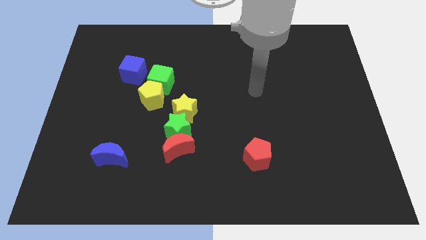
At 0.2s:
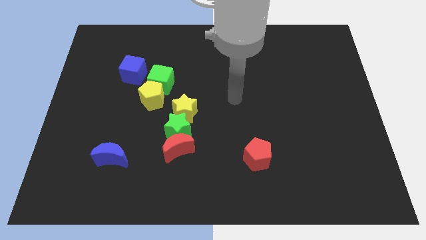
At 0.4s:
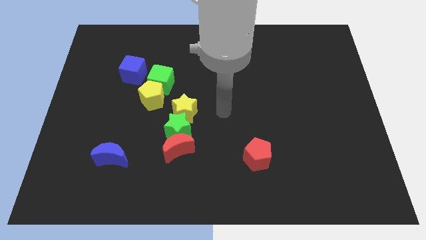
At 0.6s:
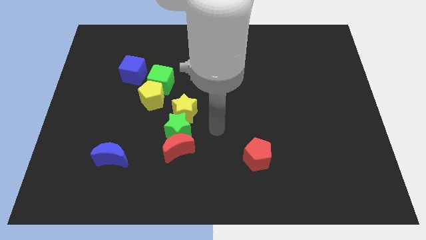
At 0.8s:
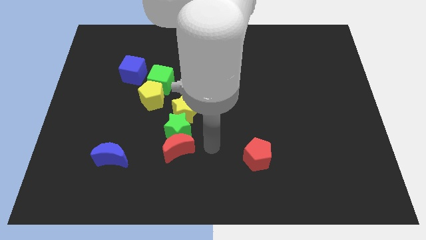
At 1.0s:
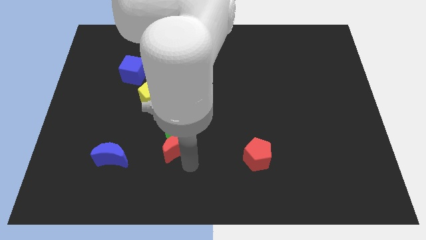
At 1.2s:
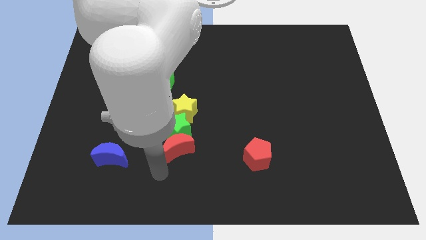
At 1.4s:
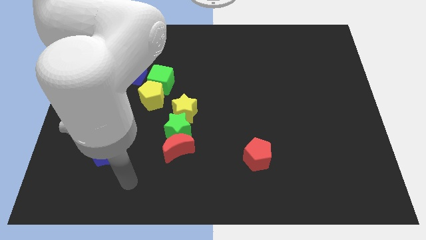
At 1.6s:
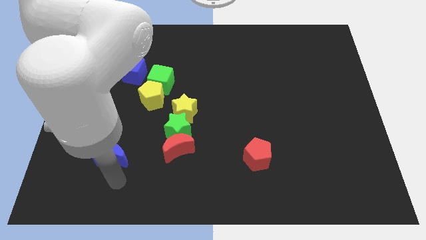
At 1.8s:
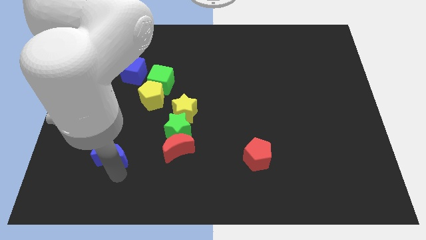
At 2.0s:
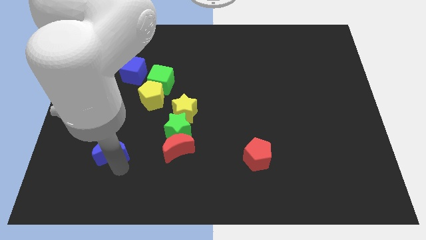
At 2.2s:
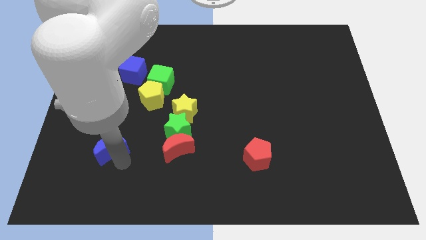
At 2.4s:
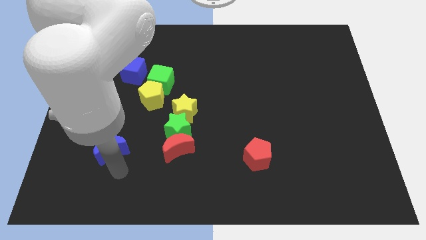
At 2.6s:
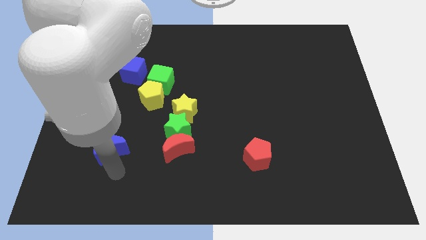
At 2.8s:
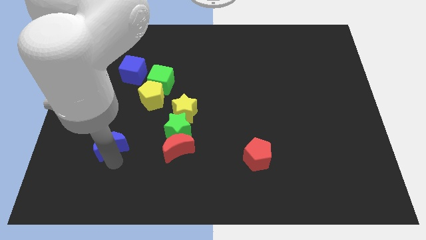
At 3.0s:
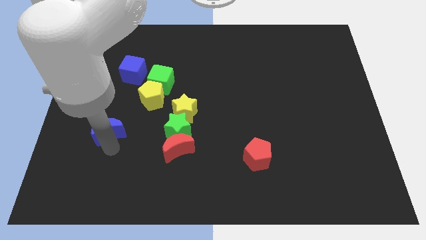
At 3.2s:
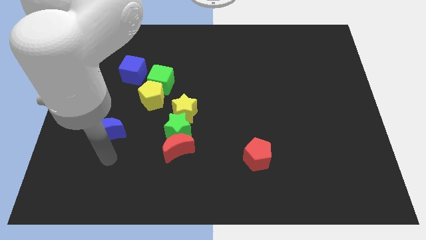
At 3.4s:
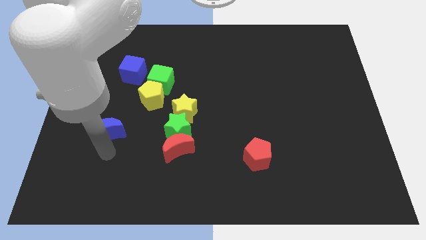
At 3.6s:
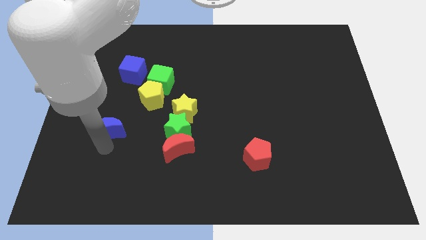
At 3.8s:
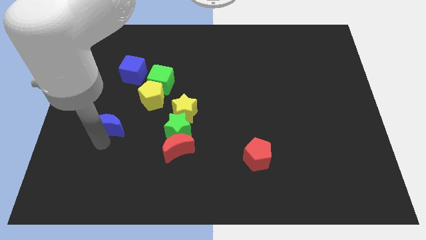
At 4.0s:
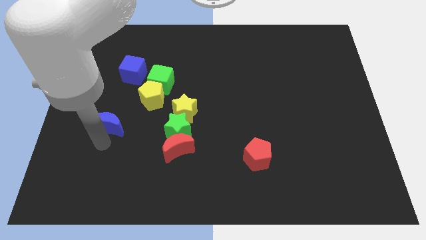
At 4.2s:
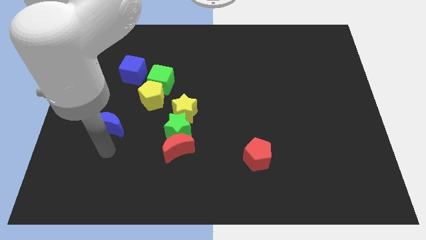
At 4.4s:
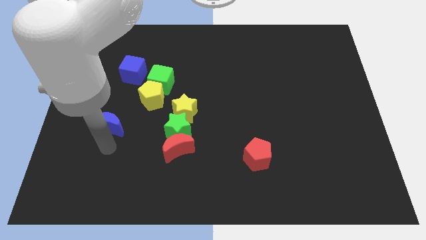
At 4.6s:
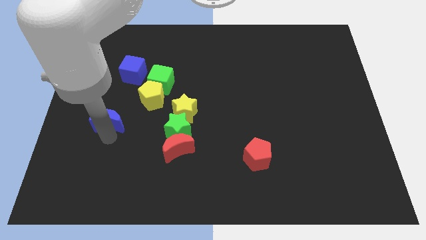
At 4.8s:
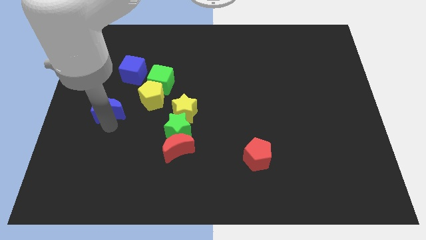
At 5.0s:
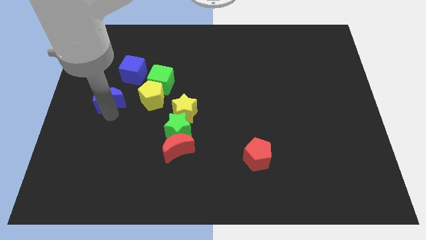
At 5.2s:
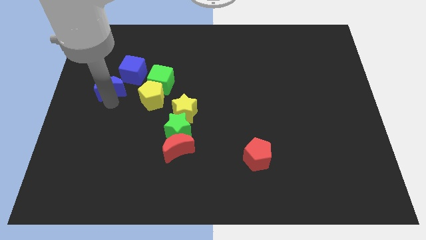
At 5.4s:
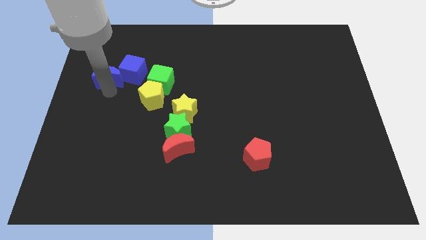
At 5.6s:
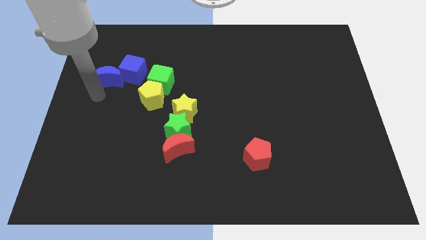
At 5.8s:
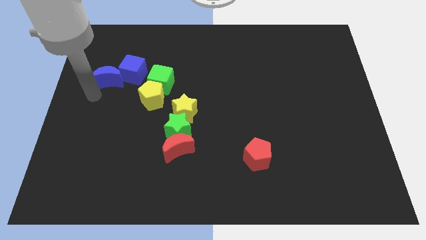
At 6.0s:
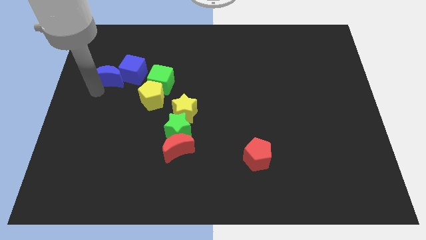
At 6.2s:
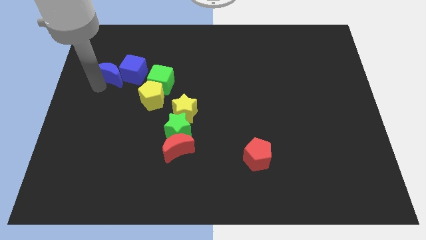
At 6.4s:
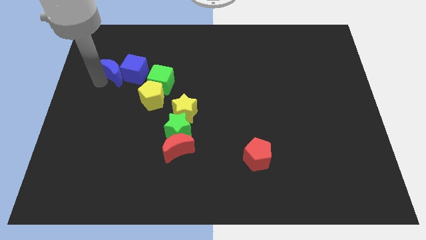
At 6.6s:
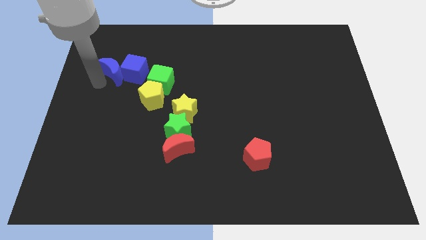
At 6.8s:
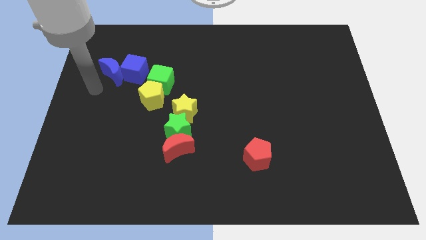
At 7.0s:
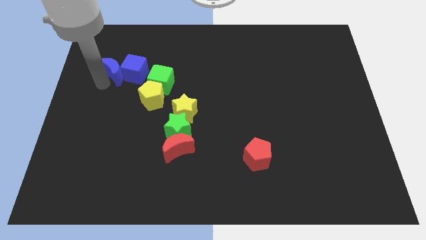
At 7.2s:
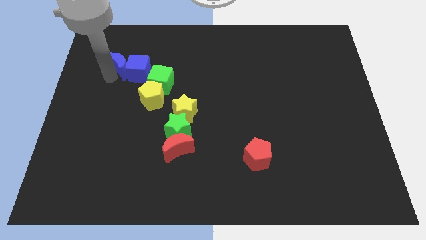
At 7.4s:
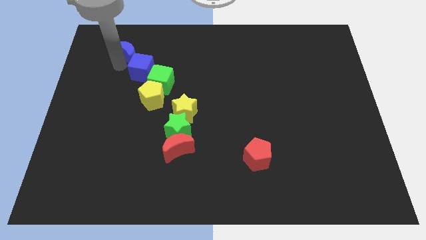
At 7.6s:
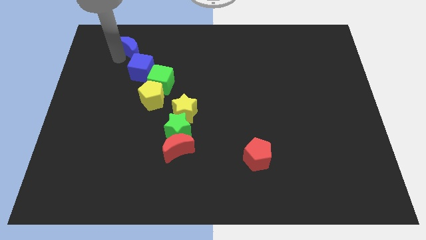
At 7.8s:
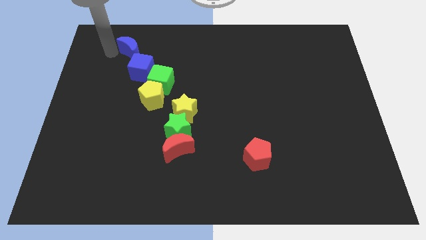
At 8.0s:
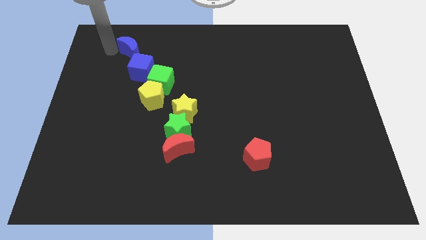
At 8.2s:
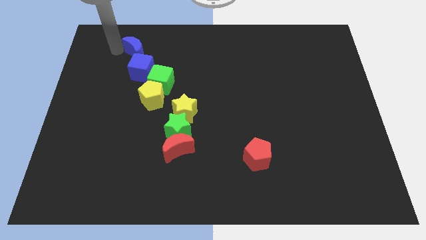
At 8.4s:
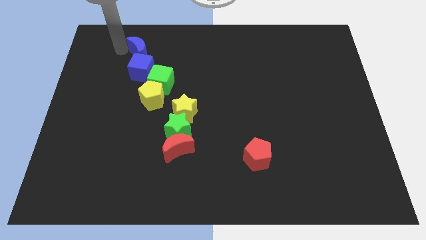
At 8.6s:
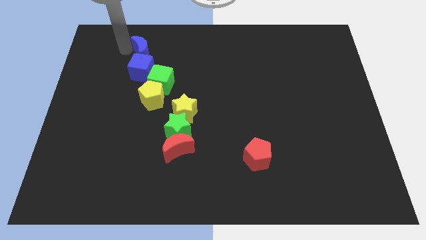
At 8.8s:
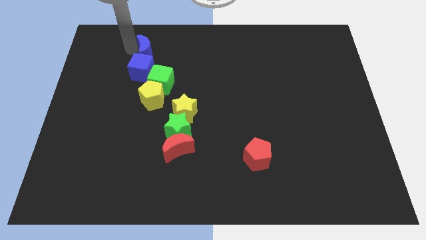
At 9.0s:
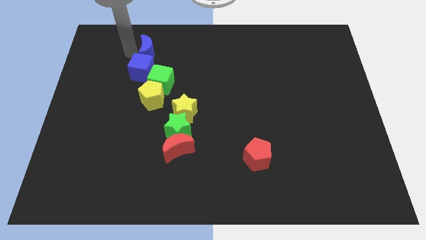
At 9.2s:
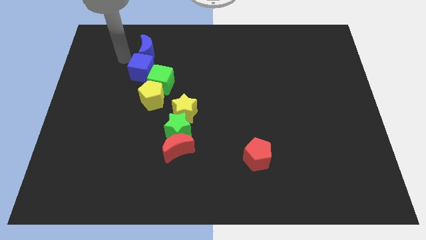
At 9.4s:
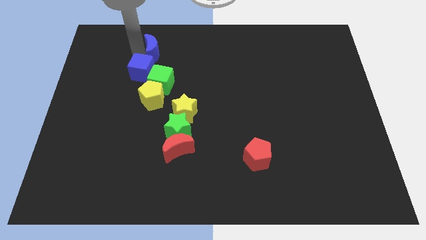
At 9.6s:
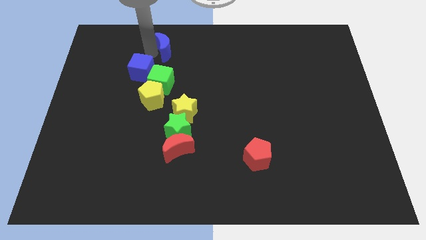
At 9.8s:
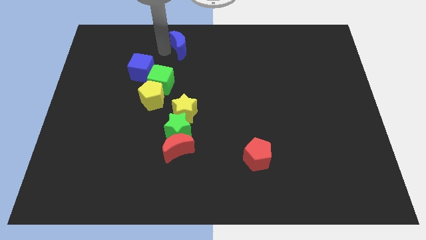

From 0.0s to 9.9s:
slide the blue moon to the top side

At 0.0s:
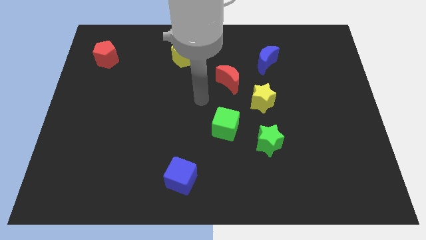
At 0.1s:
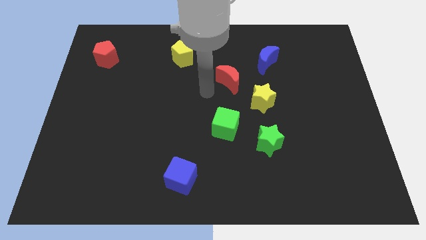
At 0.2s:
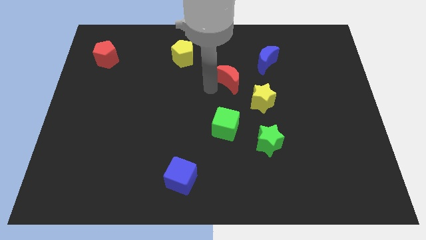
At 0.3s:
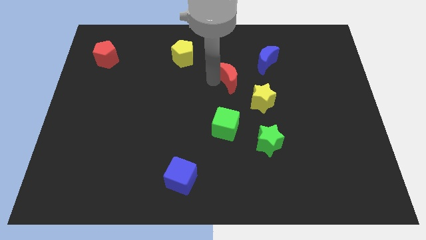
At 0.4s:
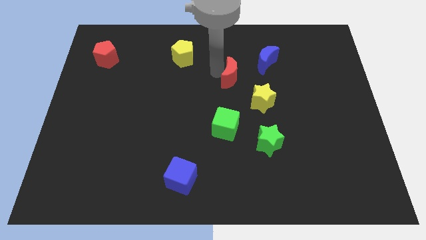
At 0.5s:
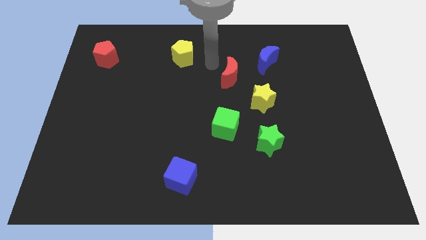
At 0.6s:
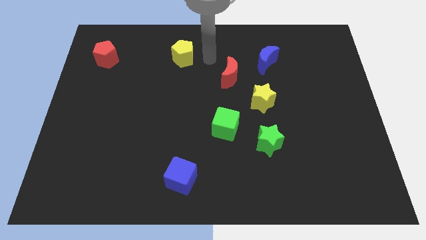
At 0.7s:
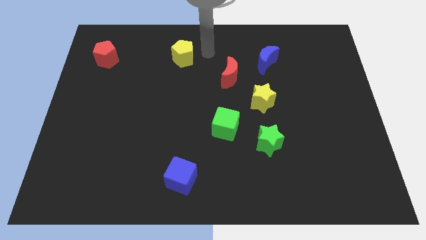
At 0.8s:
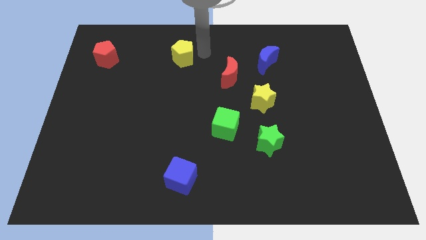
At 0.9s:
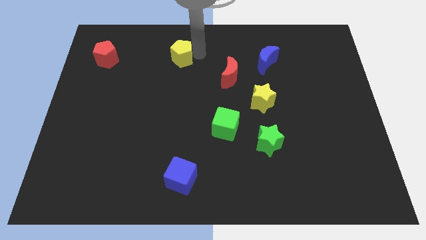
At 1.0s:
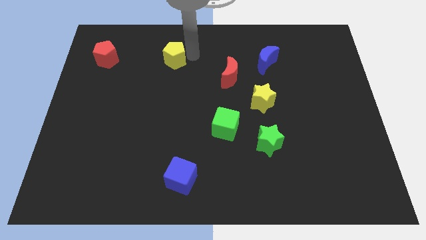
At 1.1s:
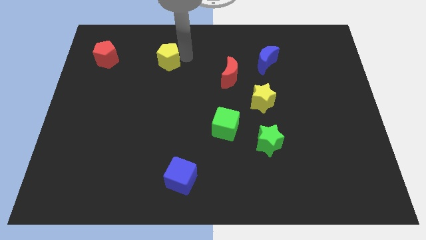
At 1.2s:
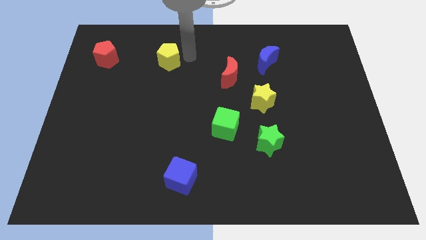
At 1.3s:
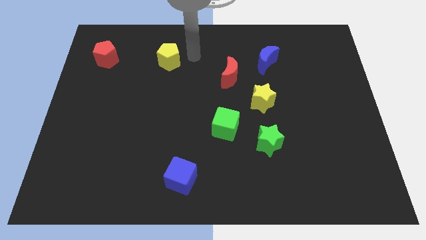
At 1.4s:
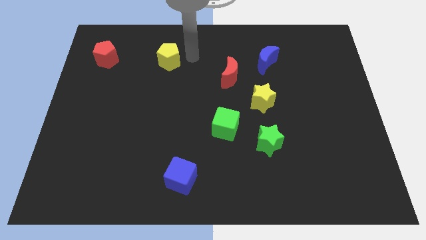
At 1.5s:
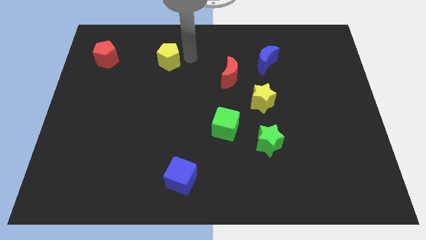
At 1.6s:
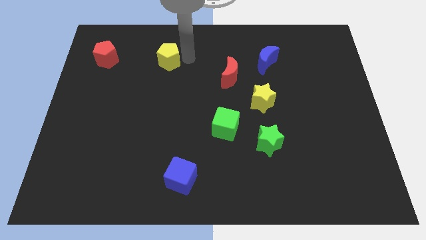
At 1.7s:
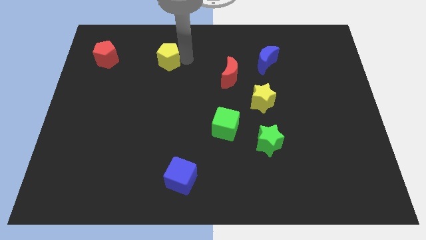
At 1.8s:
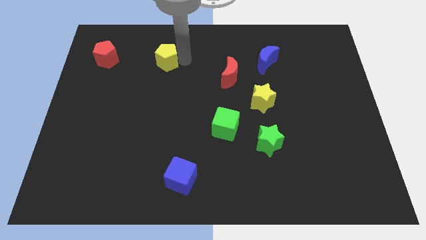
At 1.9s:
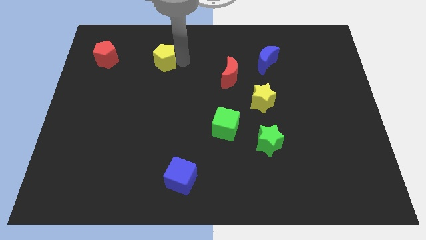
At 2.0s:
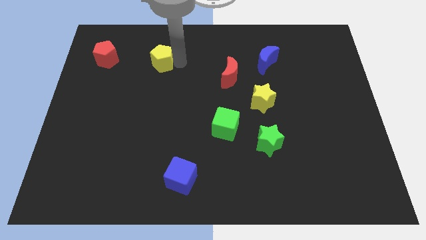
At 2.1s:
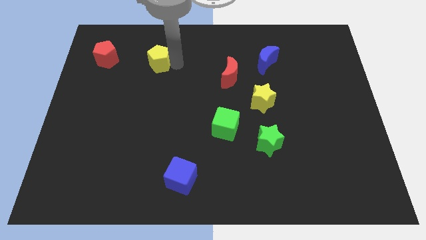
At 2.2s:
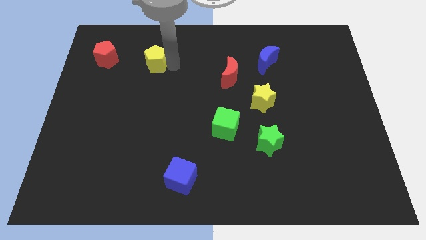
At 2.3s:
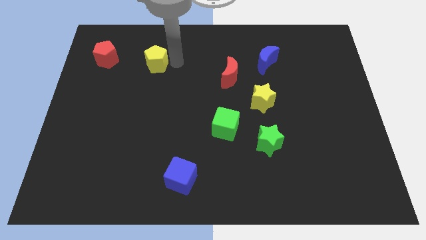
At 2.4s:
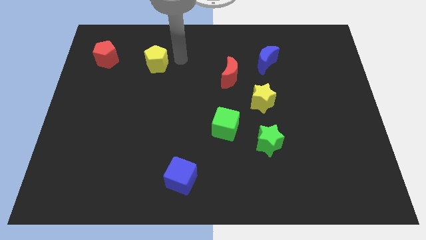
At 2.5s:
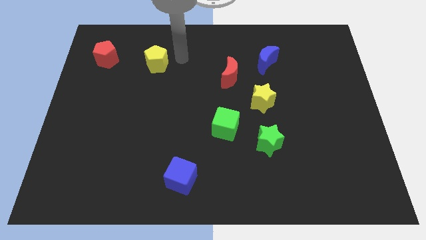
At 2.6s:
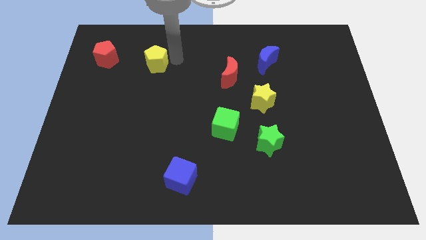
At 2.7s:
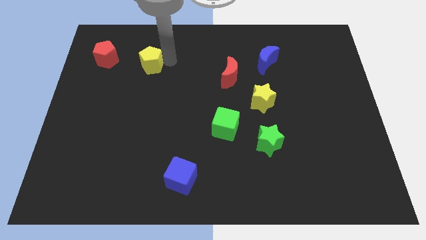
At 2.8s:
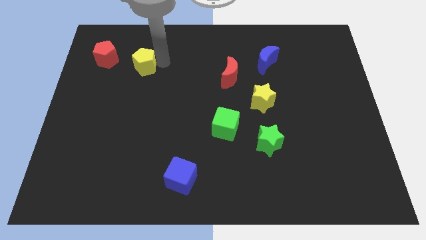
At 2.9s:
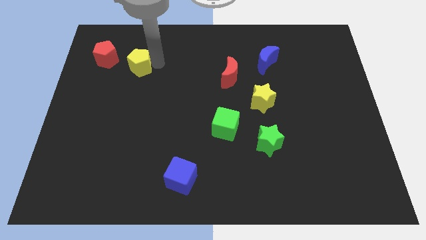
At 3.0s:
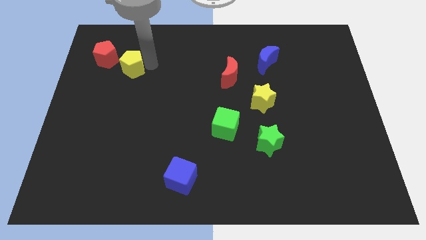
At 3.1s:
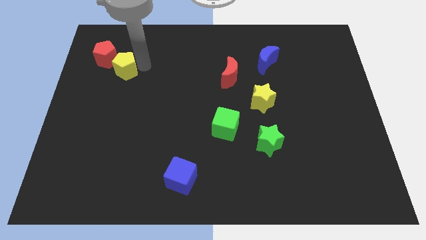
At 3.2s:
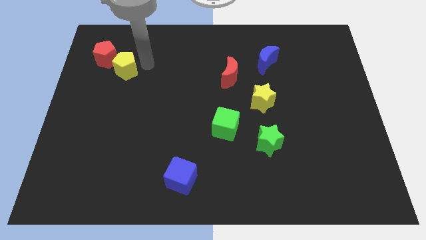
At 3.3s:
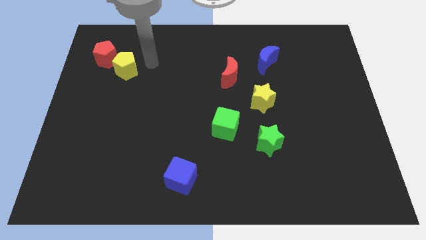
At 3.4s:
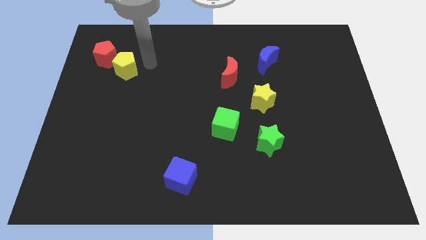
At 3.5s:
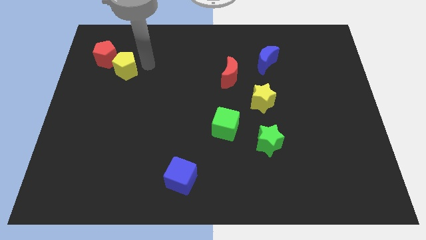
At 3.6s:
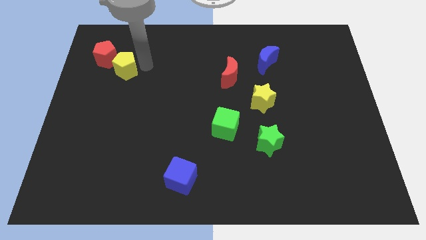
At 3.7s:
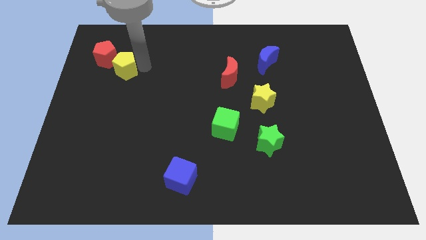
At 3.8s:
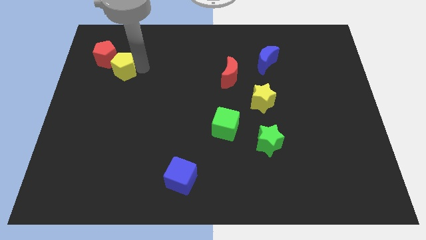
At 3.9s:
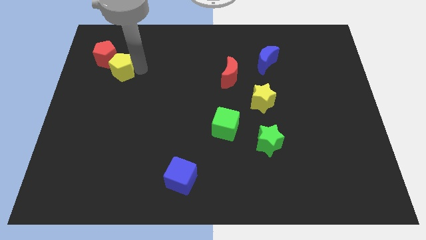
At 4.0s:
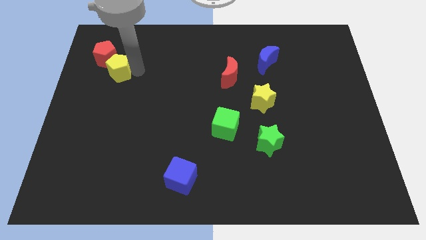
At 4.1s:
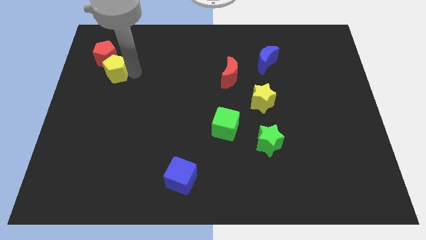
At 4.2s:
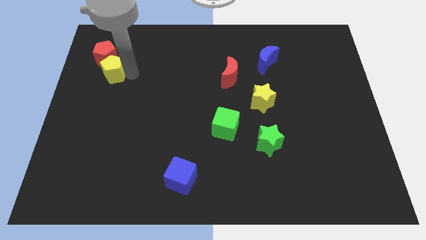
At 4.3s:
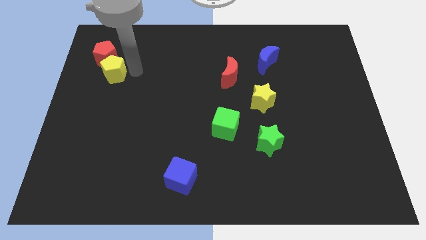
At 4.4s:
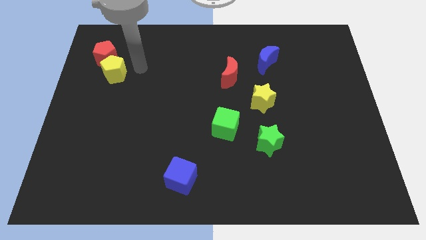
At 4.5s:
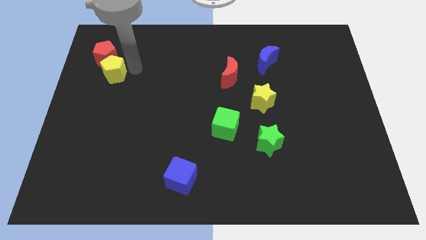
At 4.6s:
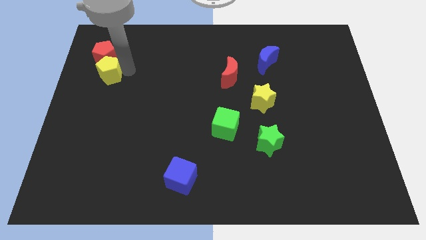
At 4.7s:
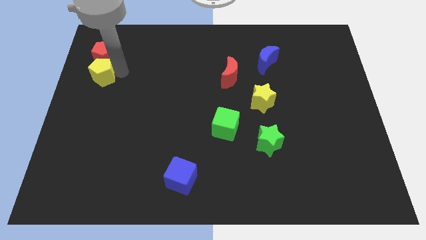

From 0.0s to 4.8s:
move the yellow pentagon to the left side
